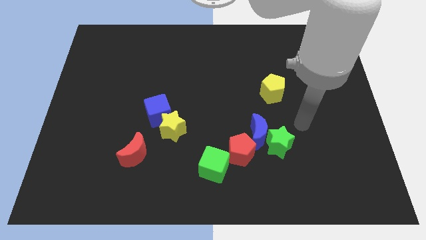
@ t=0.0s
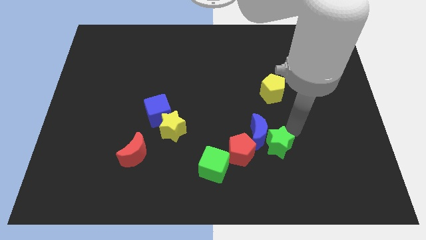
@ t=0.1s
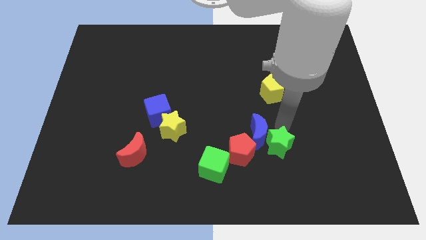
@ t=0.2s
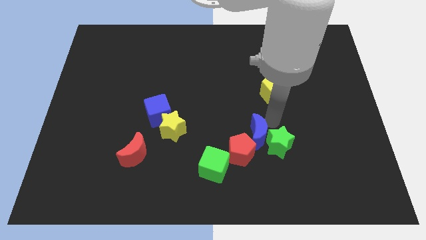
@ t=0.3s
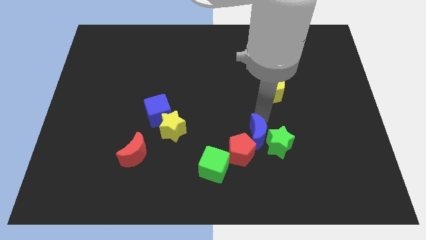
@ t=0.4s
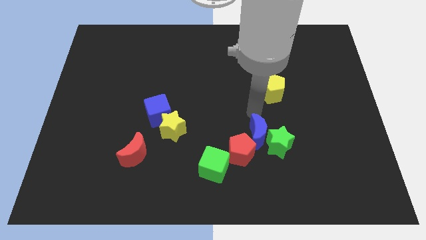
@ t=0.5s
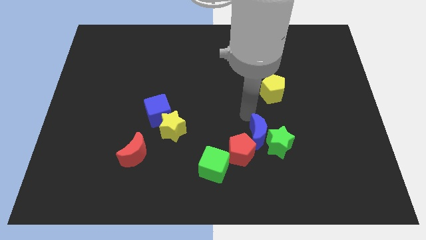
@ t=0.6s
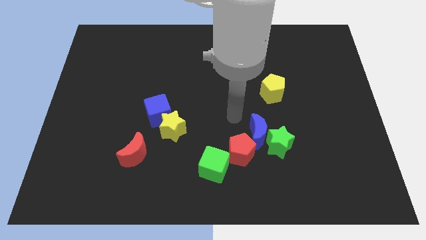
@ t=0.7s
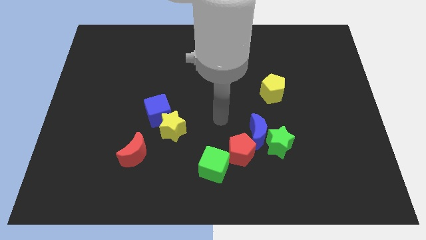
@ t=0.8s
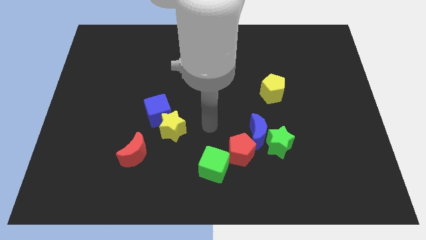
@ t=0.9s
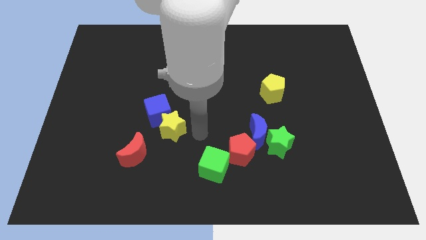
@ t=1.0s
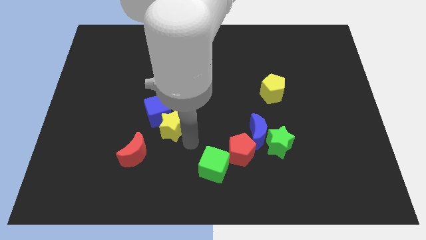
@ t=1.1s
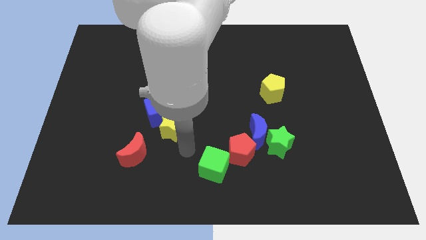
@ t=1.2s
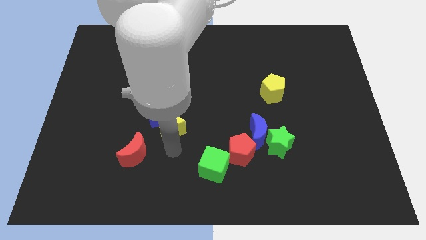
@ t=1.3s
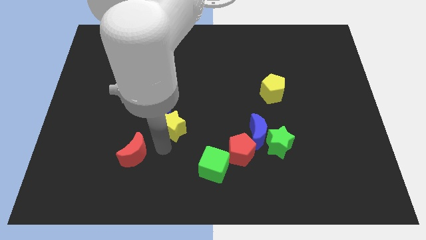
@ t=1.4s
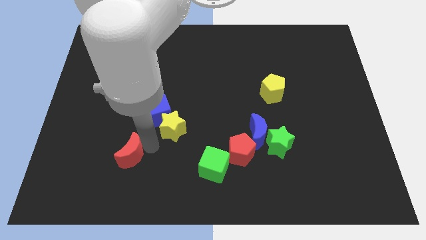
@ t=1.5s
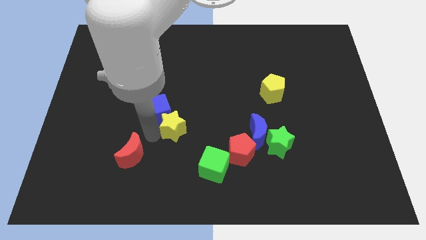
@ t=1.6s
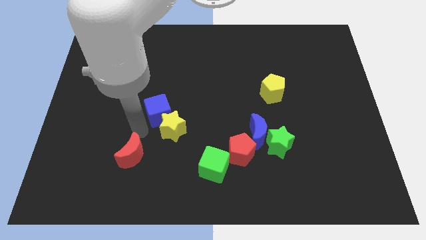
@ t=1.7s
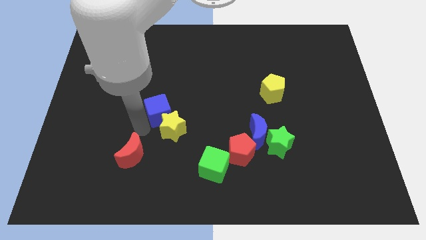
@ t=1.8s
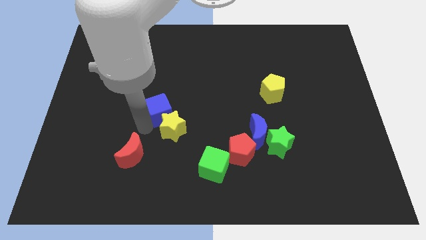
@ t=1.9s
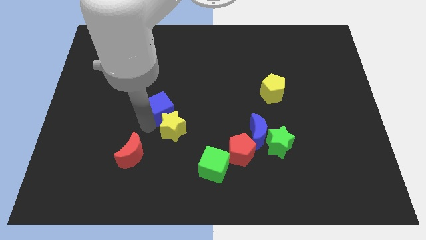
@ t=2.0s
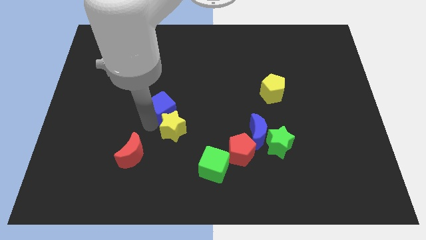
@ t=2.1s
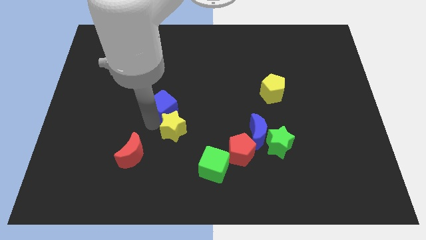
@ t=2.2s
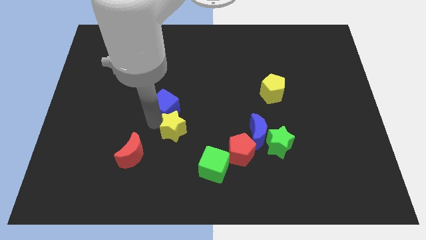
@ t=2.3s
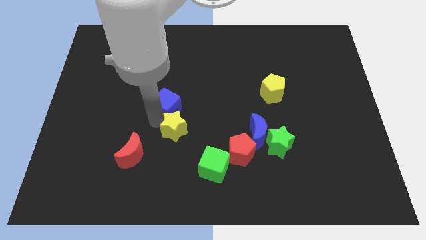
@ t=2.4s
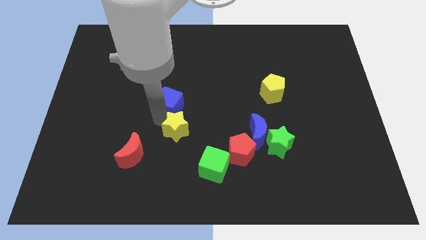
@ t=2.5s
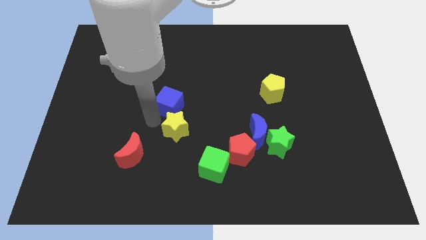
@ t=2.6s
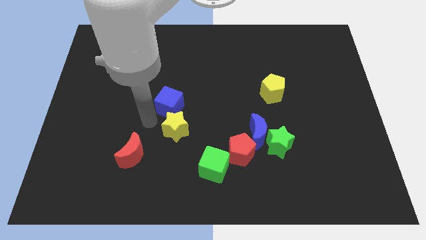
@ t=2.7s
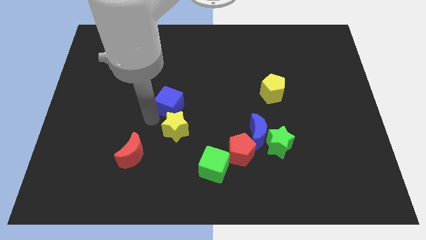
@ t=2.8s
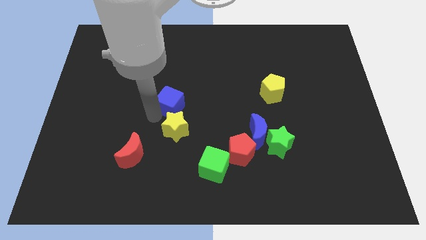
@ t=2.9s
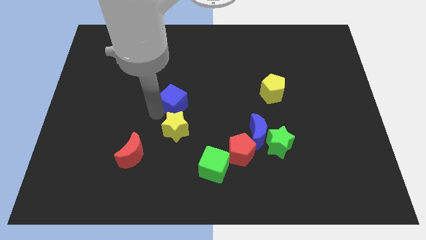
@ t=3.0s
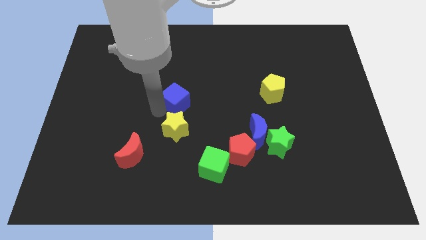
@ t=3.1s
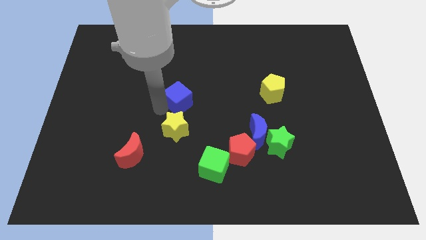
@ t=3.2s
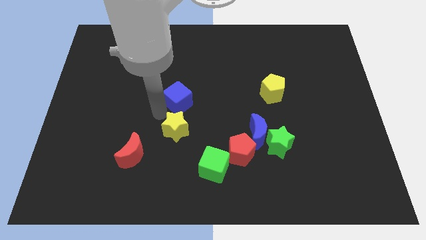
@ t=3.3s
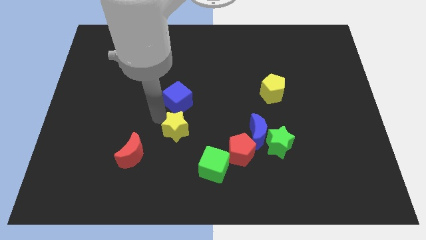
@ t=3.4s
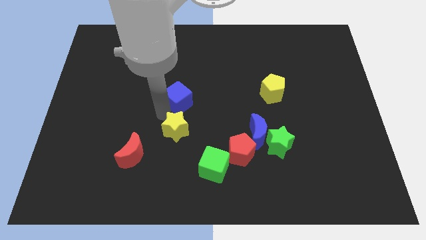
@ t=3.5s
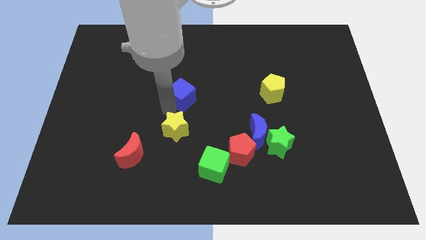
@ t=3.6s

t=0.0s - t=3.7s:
move the blue cube a little up and then right

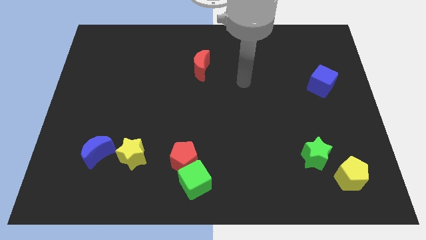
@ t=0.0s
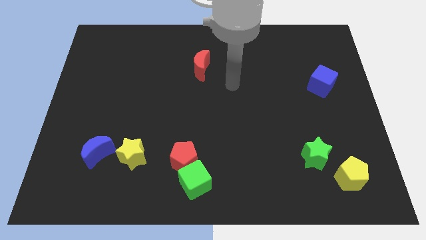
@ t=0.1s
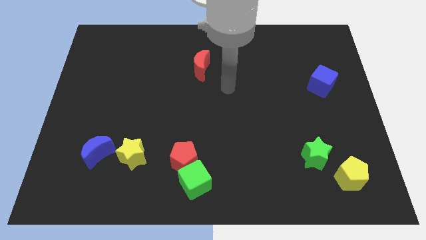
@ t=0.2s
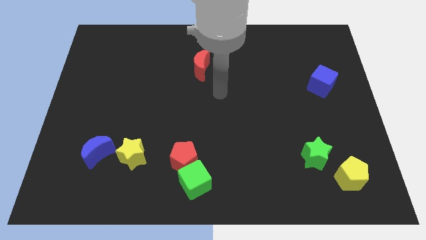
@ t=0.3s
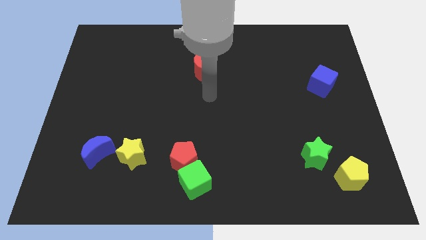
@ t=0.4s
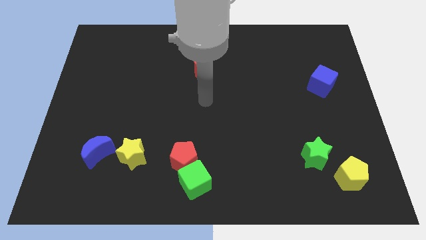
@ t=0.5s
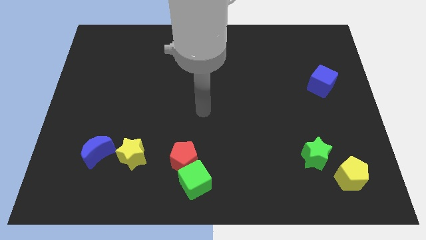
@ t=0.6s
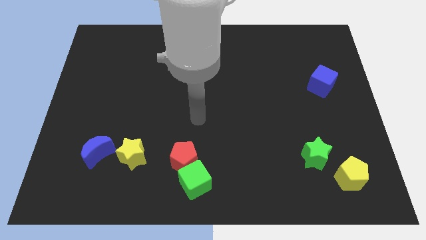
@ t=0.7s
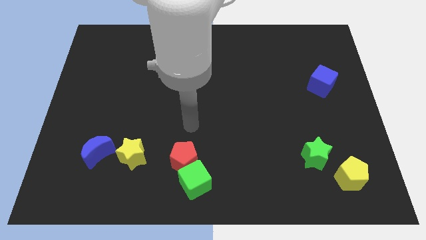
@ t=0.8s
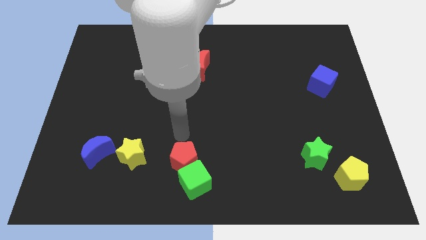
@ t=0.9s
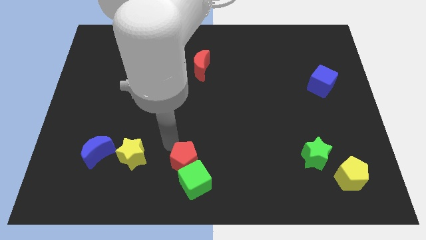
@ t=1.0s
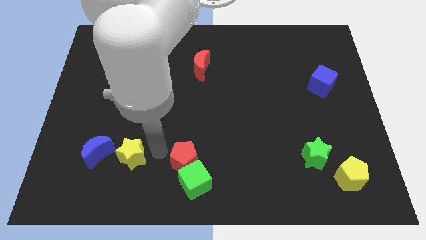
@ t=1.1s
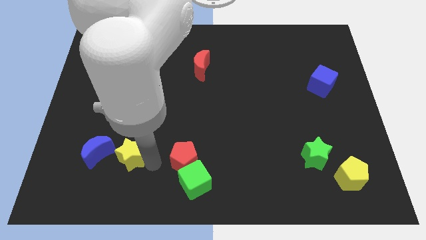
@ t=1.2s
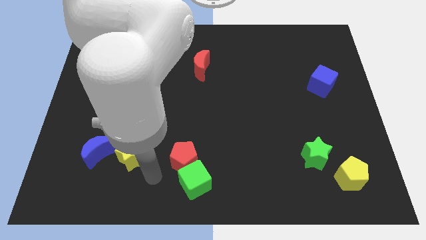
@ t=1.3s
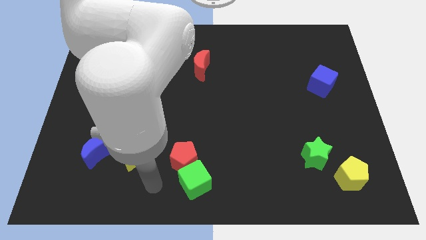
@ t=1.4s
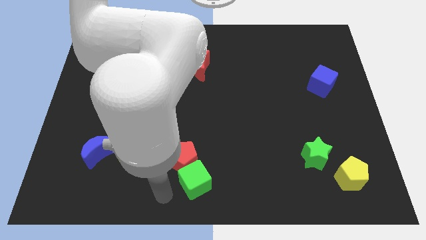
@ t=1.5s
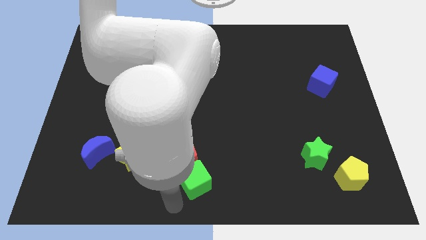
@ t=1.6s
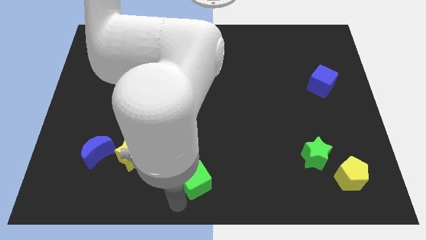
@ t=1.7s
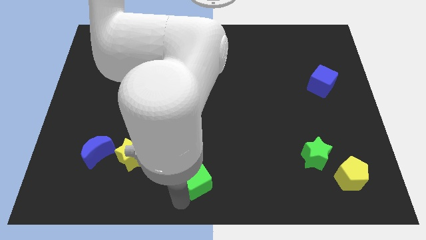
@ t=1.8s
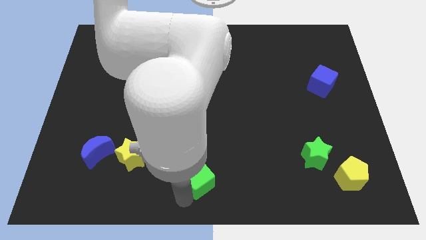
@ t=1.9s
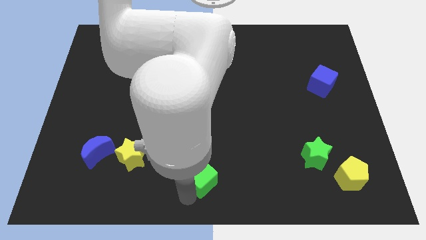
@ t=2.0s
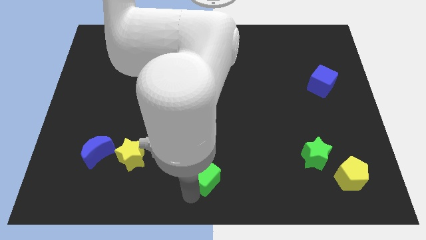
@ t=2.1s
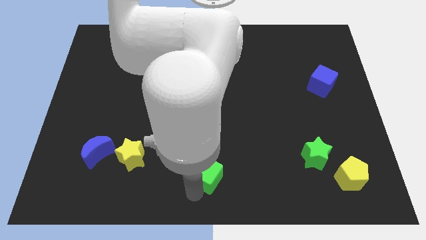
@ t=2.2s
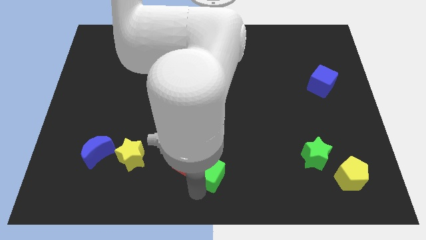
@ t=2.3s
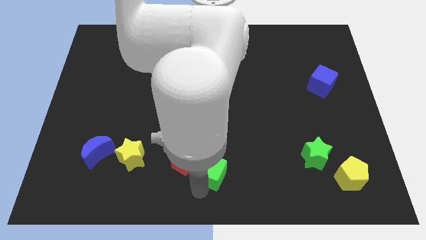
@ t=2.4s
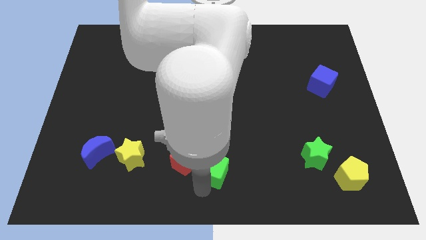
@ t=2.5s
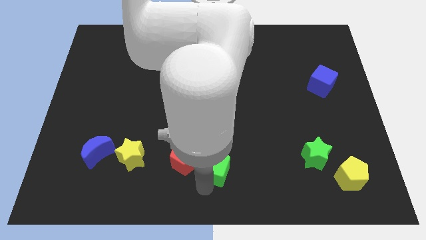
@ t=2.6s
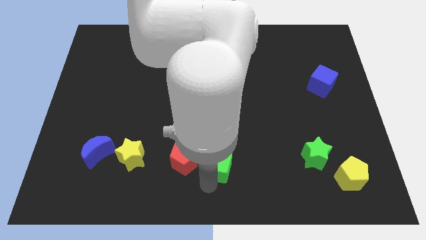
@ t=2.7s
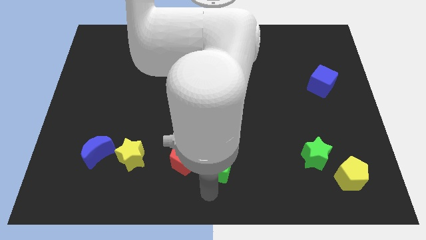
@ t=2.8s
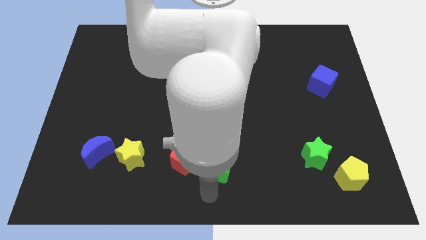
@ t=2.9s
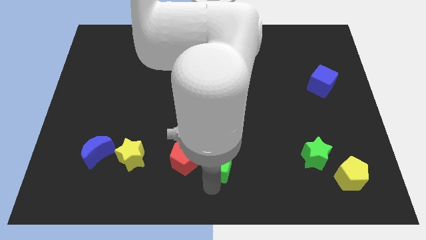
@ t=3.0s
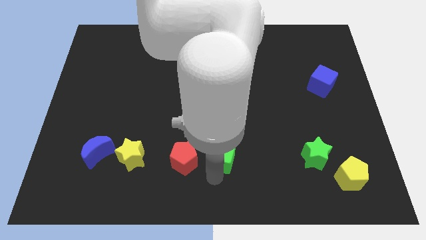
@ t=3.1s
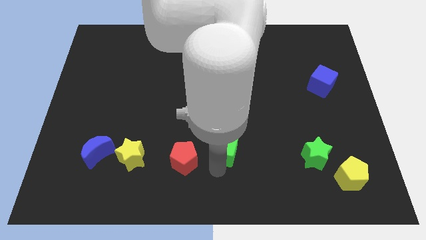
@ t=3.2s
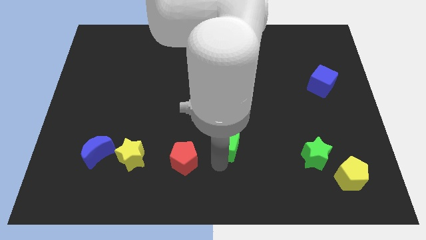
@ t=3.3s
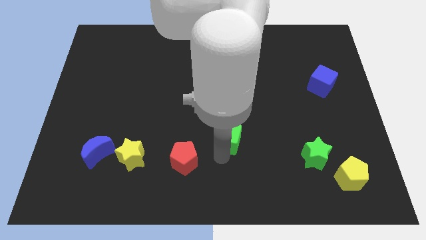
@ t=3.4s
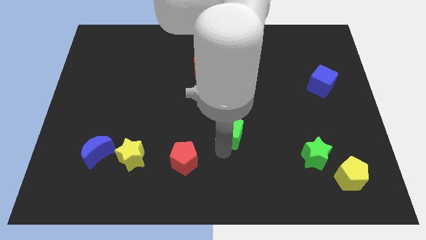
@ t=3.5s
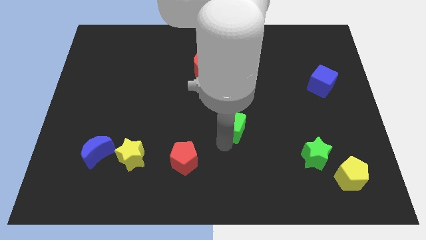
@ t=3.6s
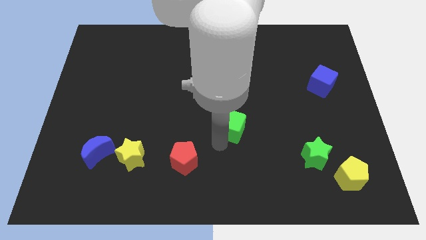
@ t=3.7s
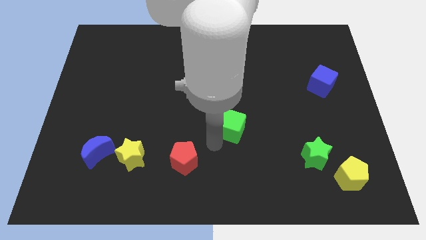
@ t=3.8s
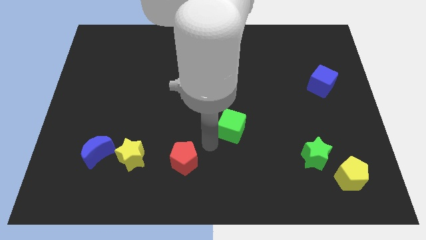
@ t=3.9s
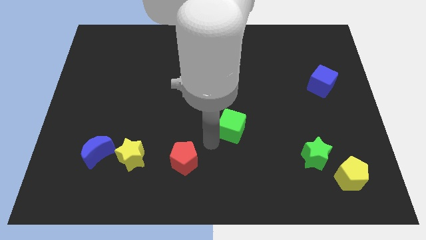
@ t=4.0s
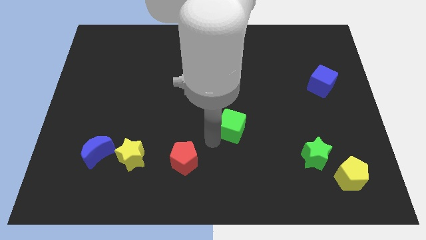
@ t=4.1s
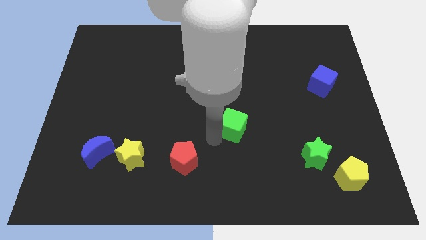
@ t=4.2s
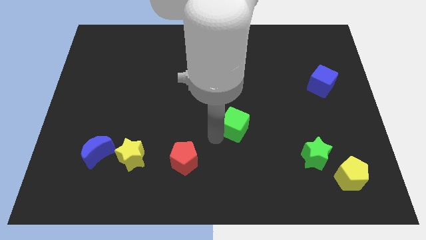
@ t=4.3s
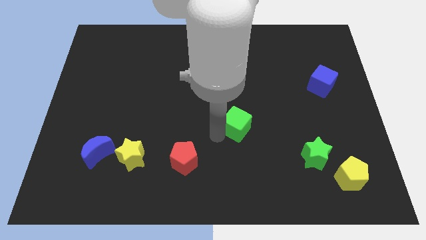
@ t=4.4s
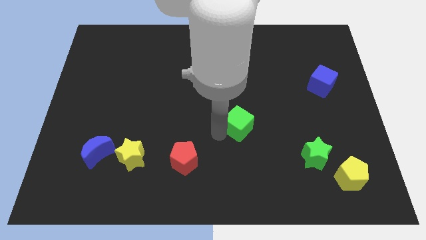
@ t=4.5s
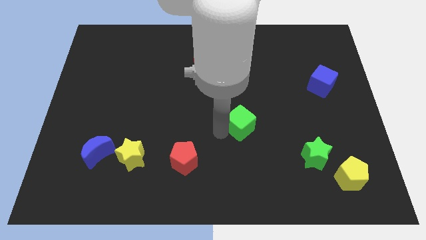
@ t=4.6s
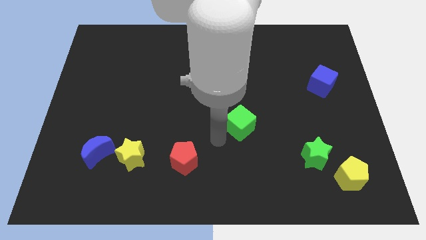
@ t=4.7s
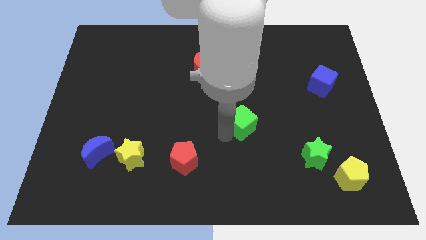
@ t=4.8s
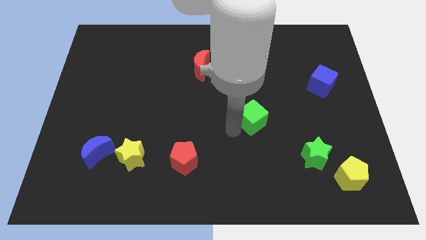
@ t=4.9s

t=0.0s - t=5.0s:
move the green cube diagonally upwards and right
